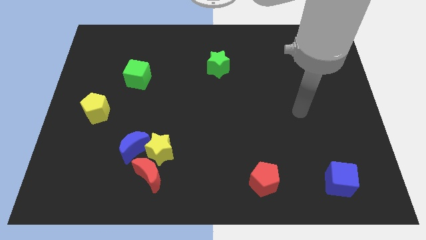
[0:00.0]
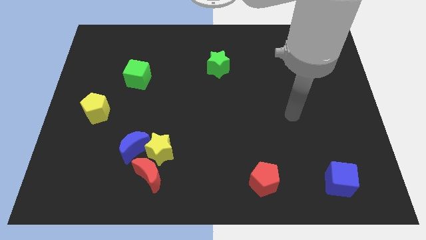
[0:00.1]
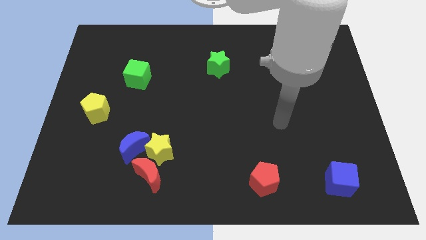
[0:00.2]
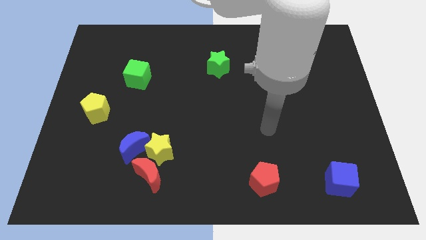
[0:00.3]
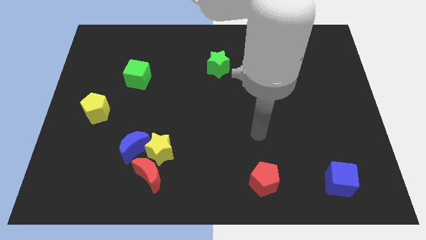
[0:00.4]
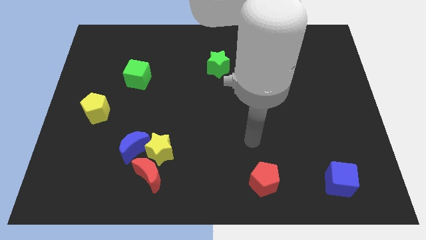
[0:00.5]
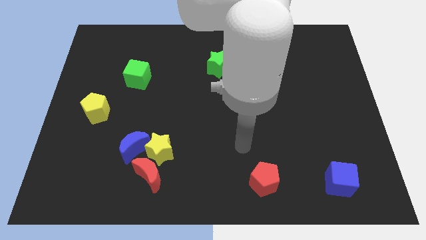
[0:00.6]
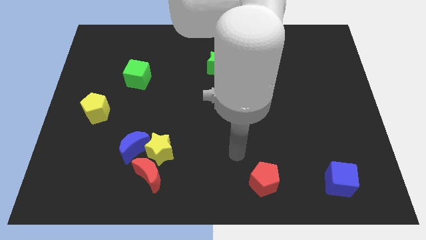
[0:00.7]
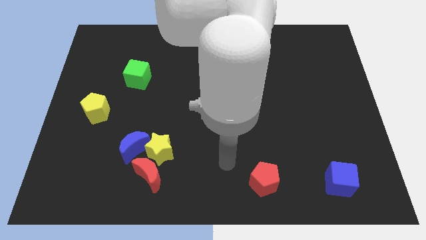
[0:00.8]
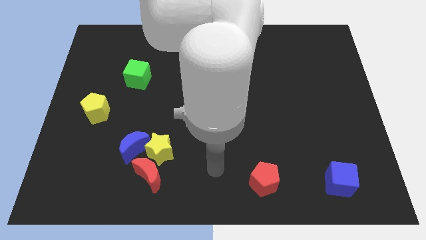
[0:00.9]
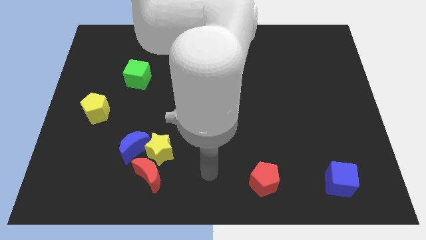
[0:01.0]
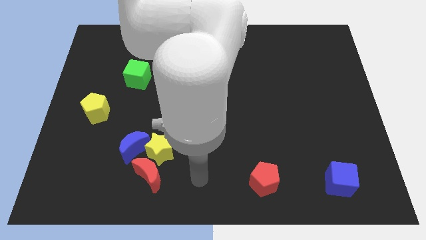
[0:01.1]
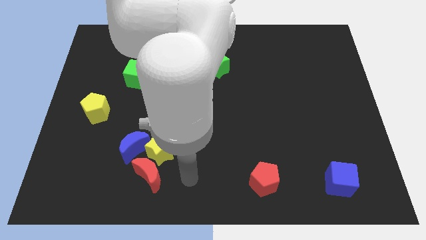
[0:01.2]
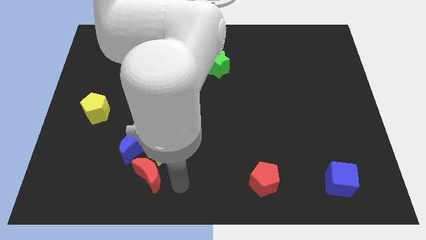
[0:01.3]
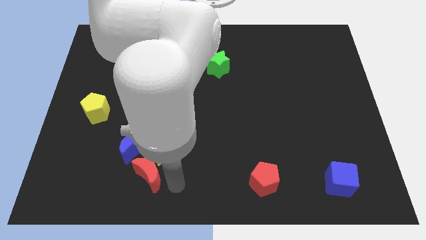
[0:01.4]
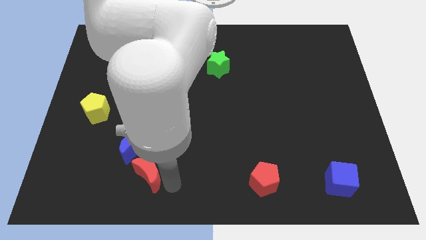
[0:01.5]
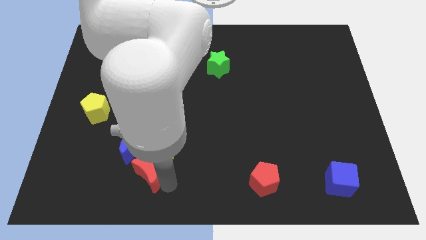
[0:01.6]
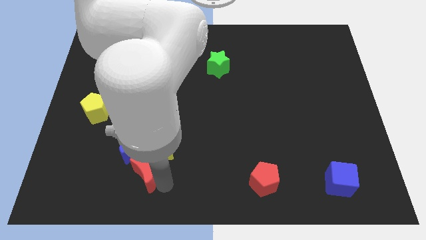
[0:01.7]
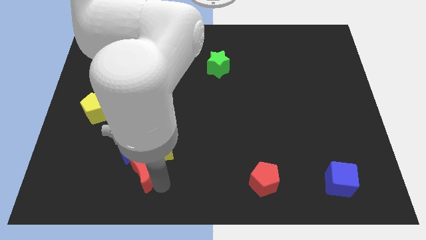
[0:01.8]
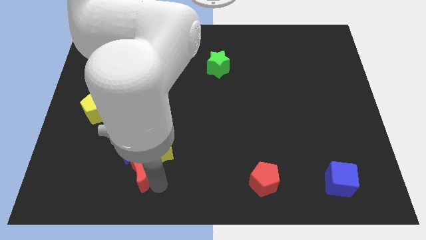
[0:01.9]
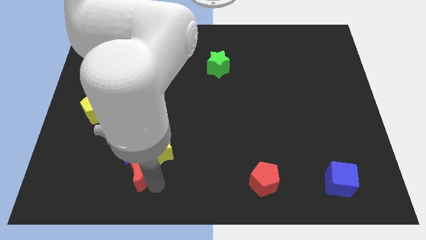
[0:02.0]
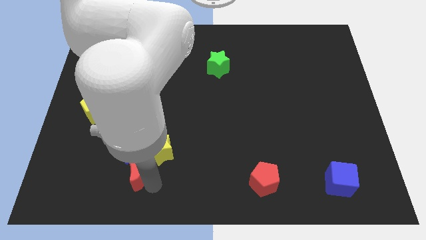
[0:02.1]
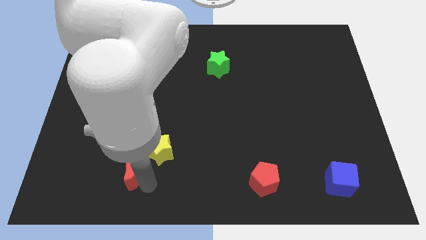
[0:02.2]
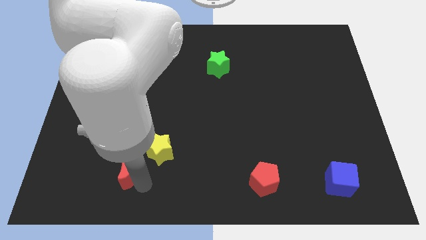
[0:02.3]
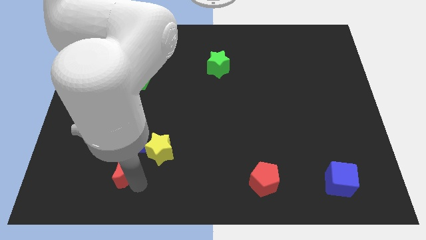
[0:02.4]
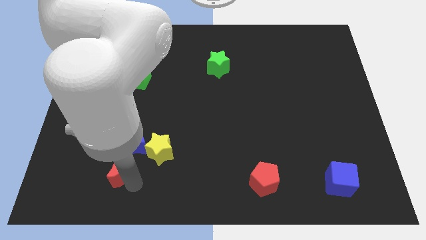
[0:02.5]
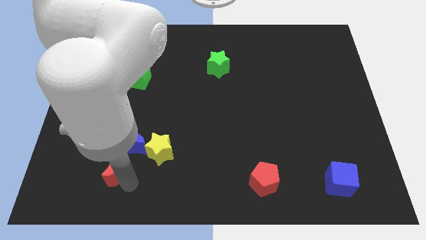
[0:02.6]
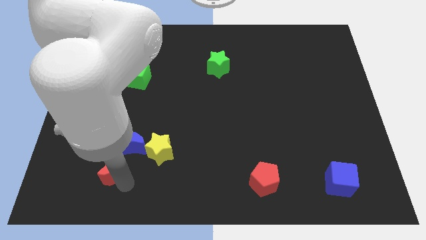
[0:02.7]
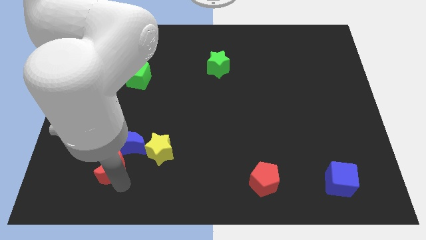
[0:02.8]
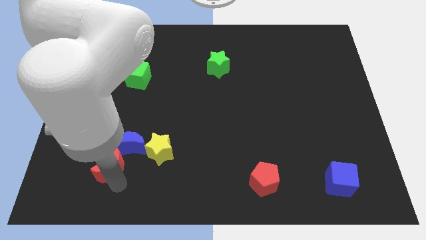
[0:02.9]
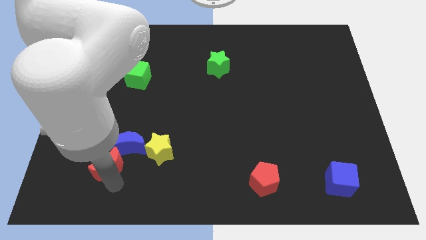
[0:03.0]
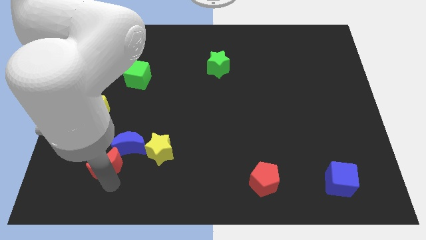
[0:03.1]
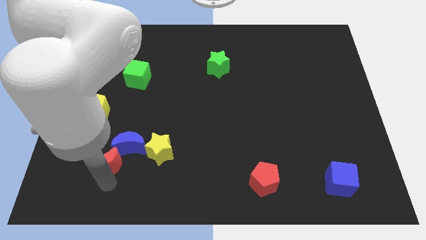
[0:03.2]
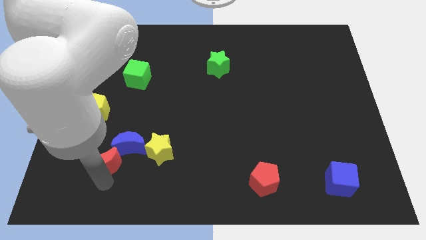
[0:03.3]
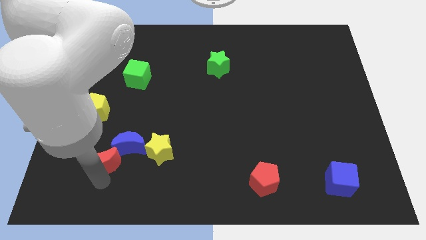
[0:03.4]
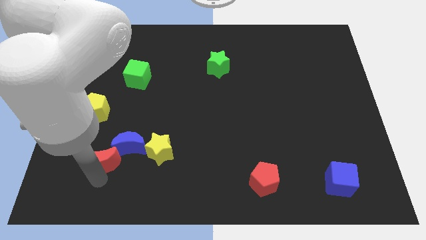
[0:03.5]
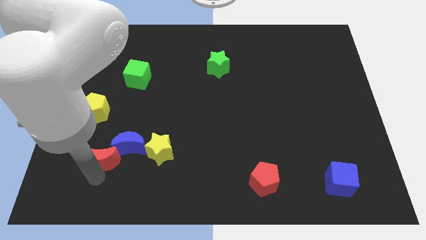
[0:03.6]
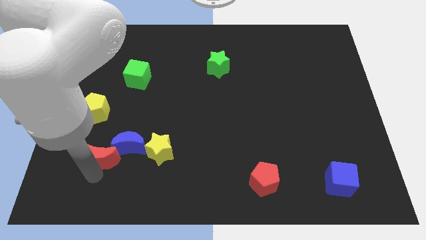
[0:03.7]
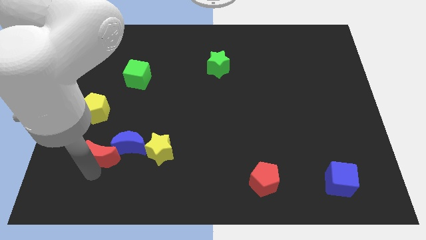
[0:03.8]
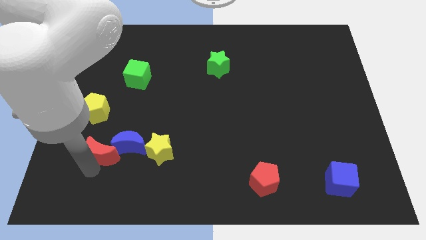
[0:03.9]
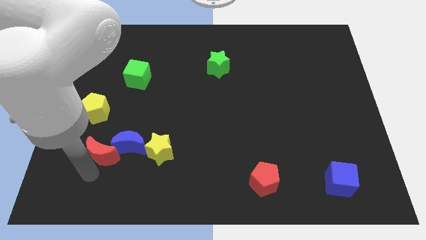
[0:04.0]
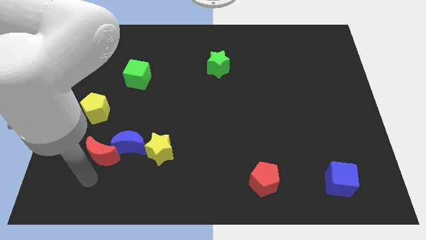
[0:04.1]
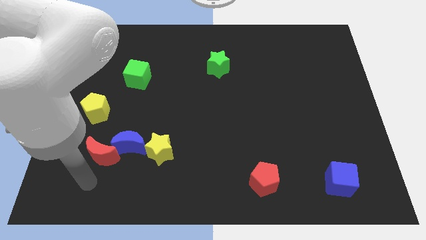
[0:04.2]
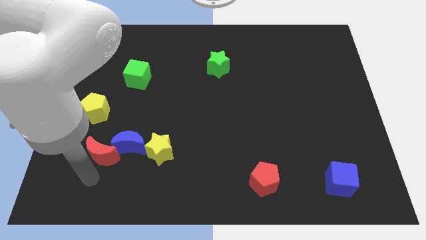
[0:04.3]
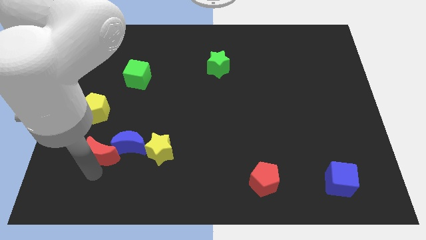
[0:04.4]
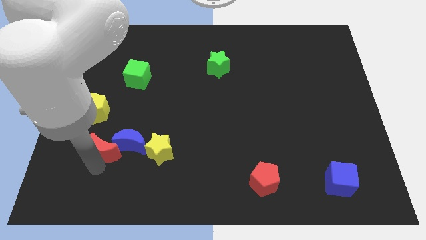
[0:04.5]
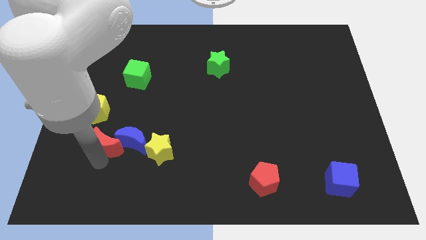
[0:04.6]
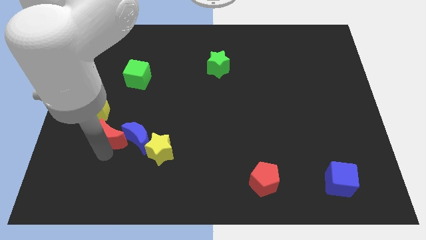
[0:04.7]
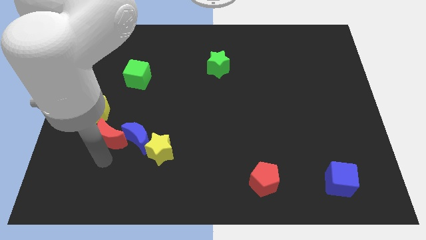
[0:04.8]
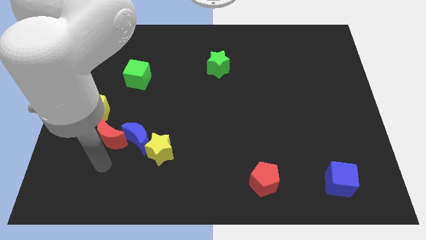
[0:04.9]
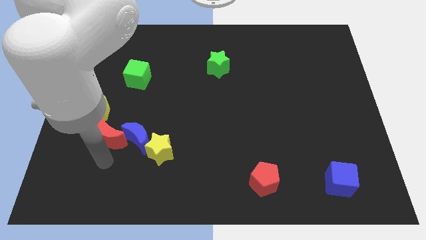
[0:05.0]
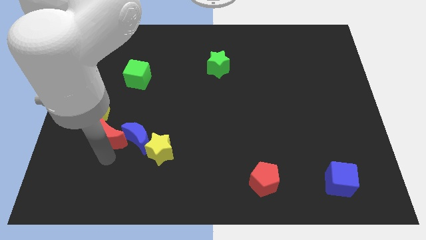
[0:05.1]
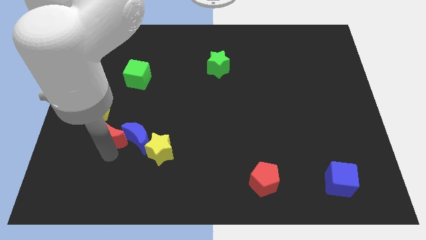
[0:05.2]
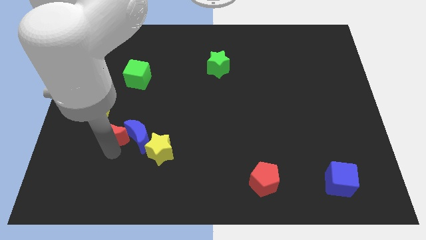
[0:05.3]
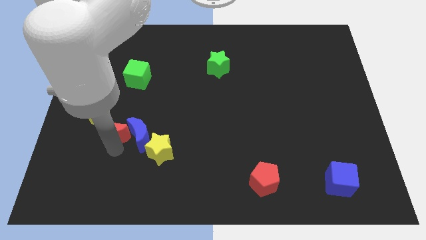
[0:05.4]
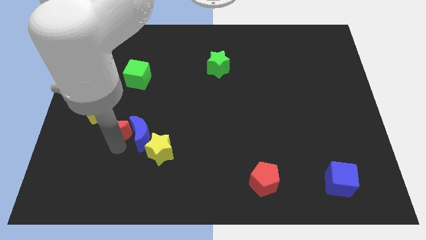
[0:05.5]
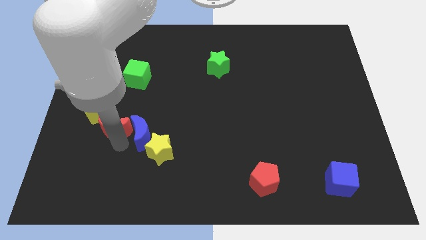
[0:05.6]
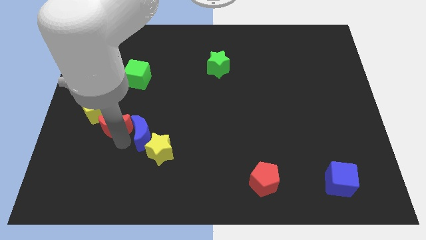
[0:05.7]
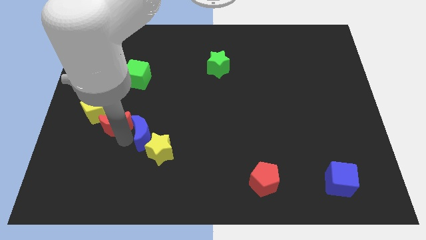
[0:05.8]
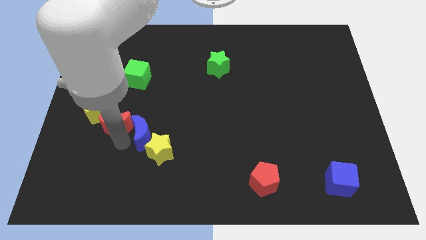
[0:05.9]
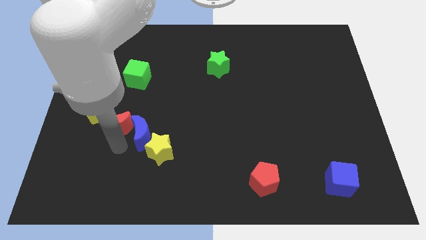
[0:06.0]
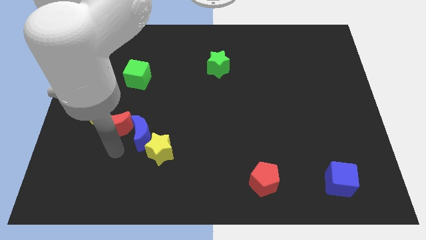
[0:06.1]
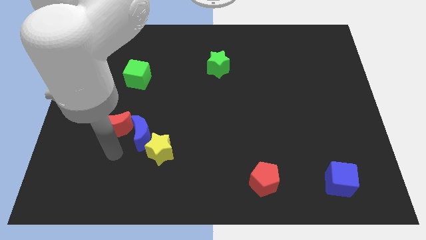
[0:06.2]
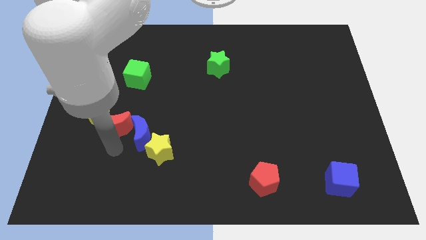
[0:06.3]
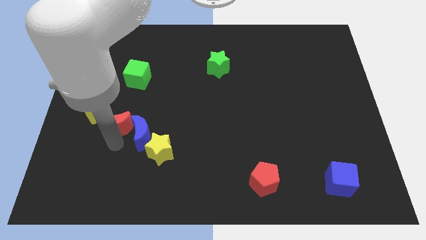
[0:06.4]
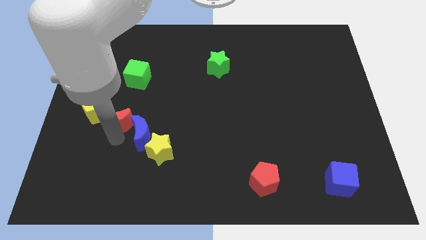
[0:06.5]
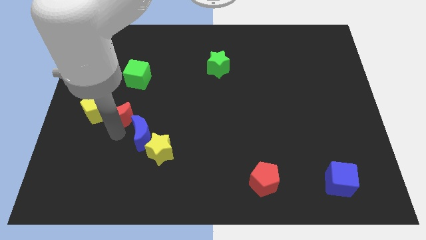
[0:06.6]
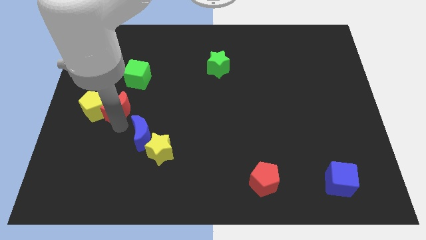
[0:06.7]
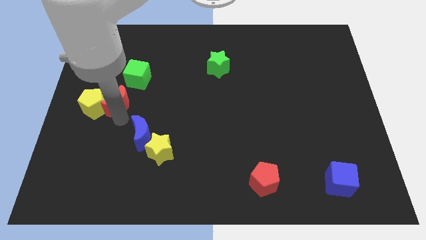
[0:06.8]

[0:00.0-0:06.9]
push the red moon diagonally down and to the left of the green cube

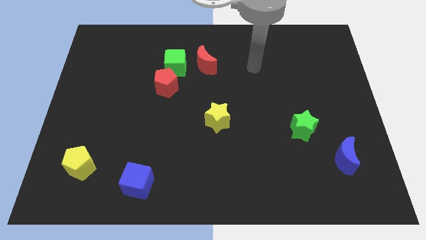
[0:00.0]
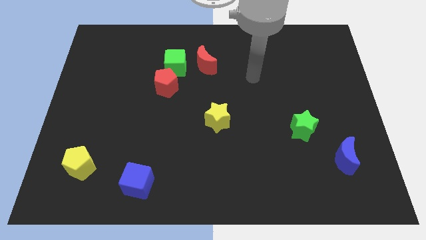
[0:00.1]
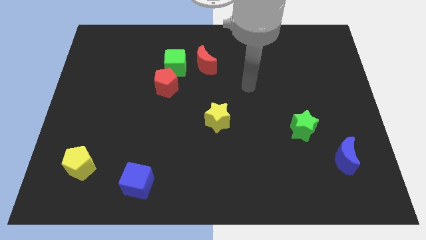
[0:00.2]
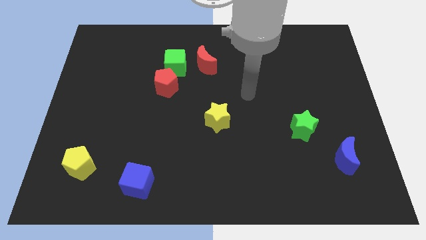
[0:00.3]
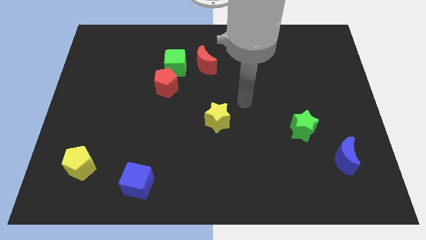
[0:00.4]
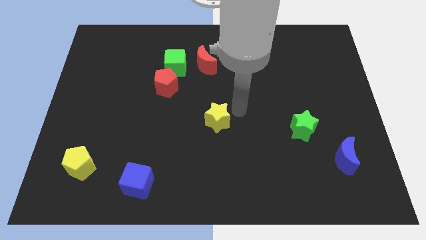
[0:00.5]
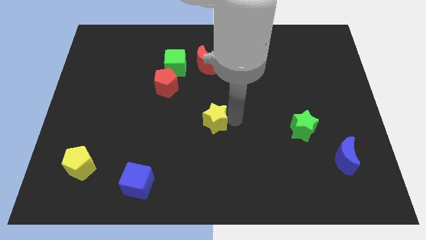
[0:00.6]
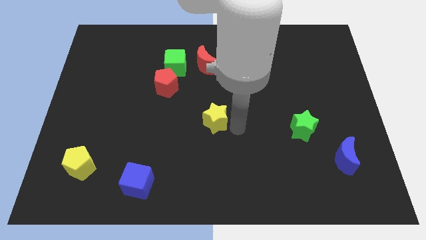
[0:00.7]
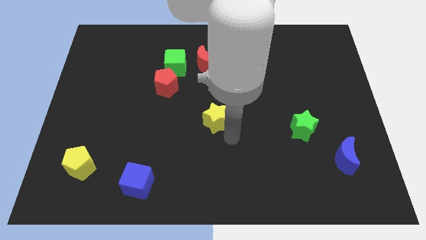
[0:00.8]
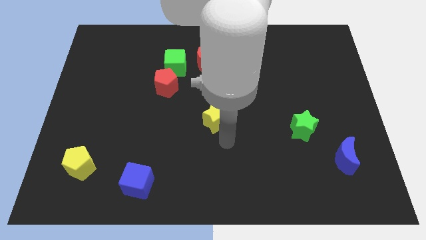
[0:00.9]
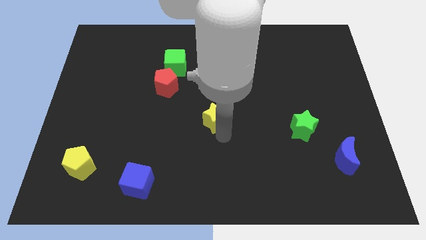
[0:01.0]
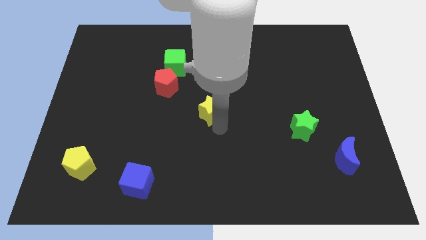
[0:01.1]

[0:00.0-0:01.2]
push the yellow star below the red moon
